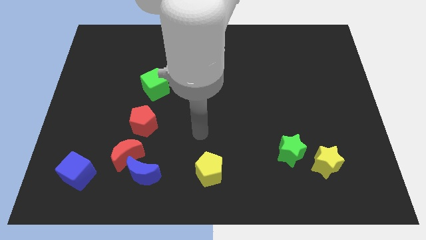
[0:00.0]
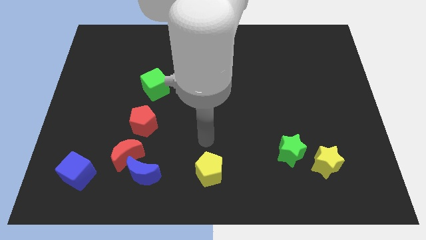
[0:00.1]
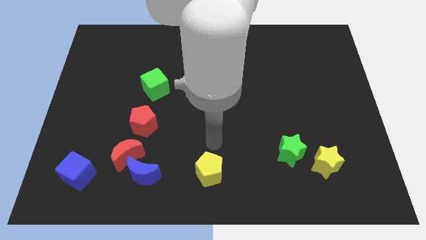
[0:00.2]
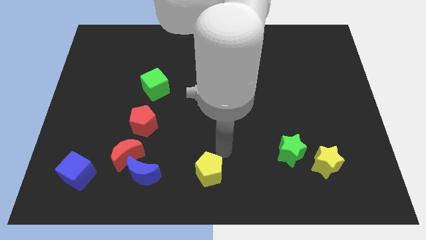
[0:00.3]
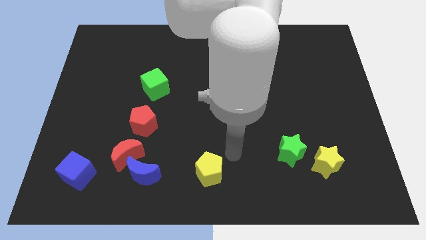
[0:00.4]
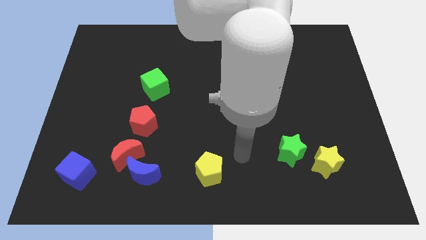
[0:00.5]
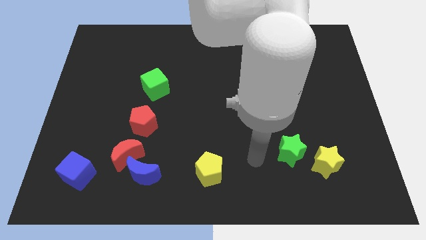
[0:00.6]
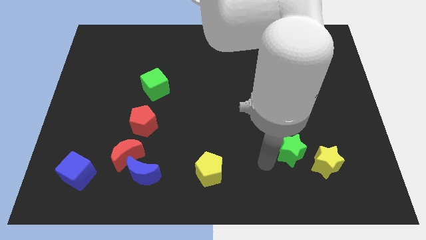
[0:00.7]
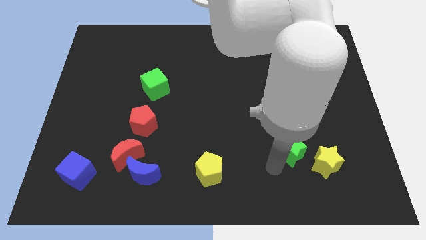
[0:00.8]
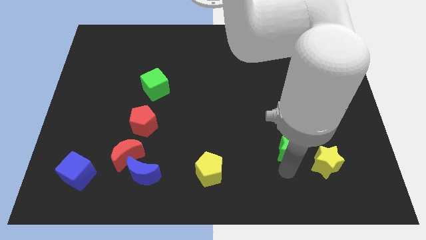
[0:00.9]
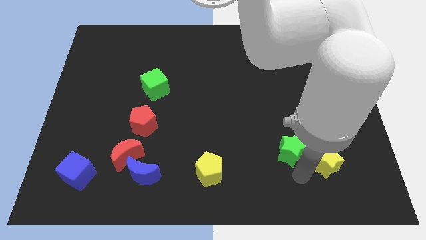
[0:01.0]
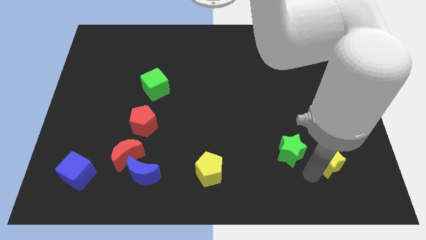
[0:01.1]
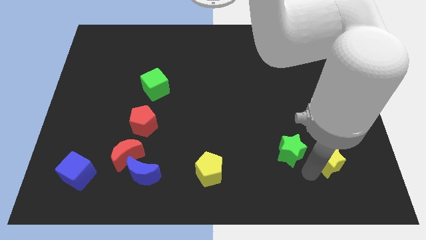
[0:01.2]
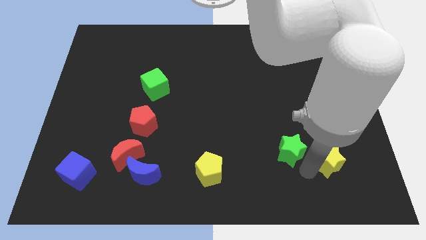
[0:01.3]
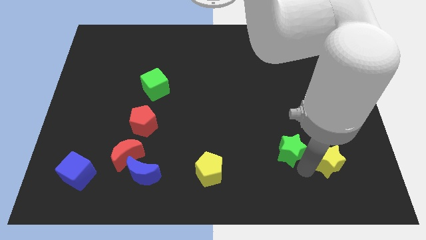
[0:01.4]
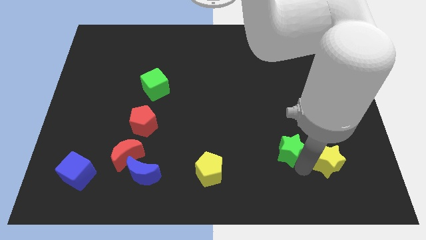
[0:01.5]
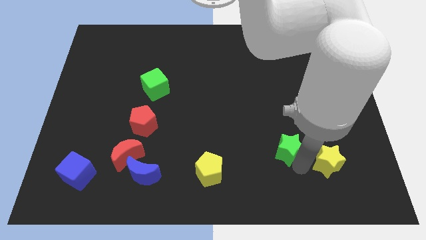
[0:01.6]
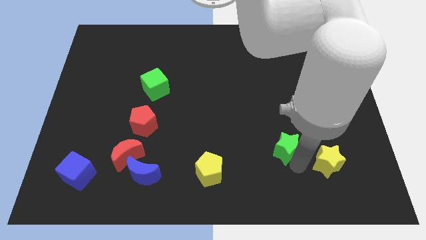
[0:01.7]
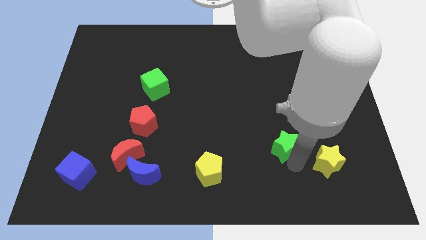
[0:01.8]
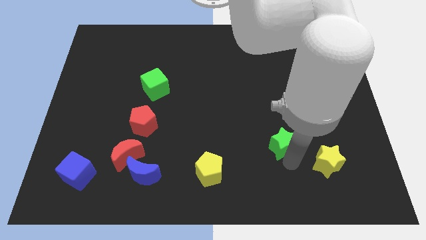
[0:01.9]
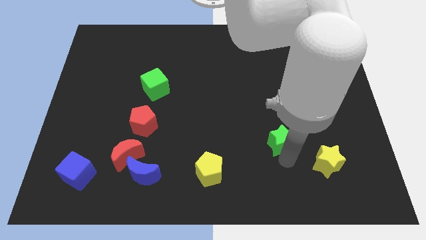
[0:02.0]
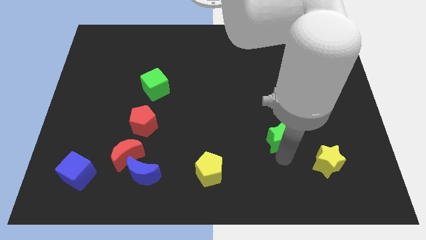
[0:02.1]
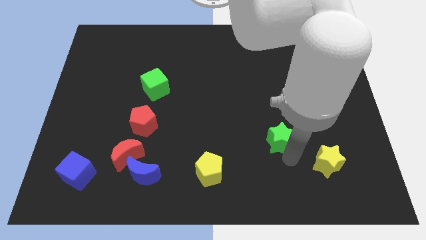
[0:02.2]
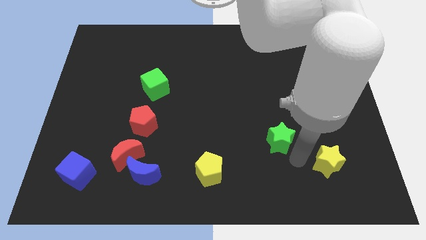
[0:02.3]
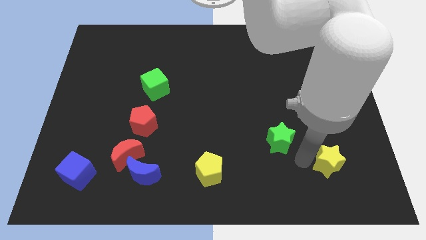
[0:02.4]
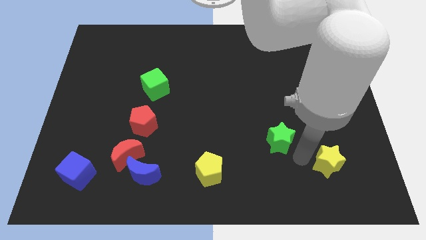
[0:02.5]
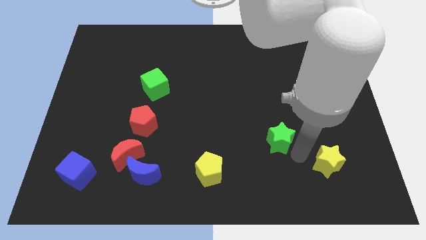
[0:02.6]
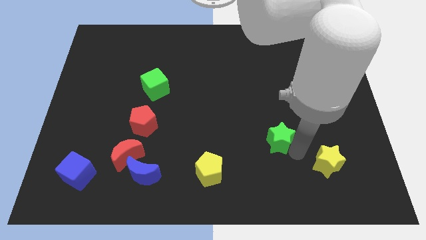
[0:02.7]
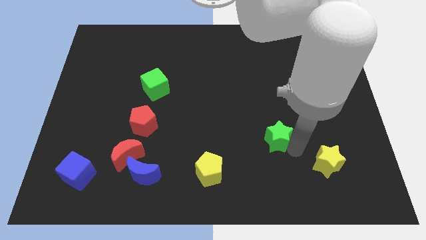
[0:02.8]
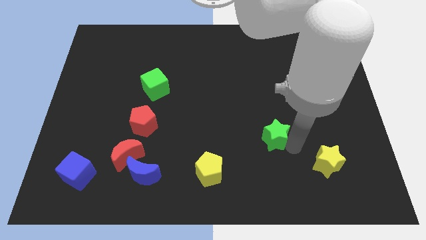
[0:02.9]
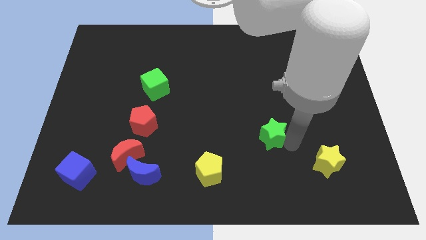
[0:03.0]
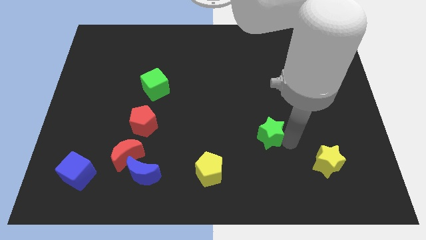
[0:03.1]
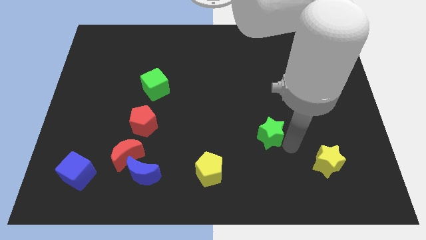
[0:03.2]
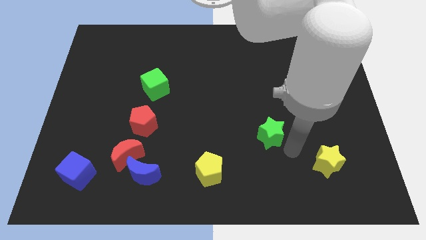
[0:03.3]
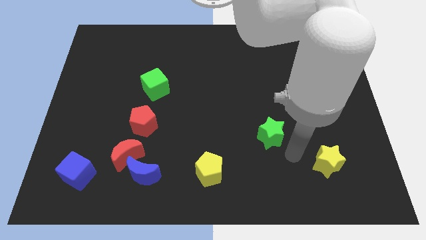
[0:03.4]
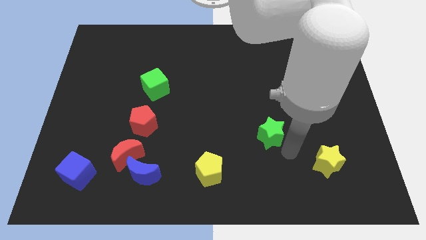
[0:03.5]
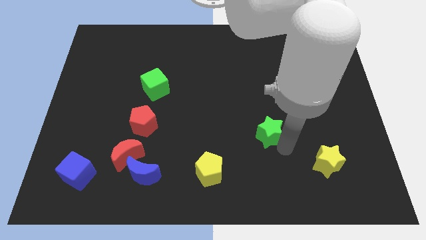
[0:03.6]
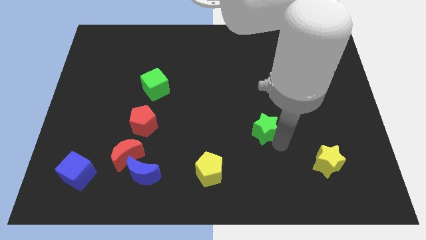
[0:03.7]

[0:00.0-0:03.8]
move the green star upwards and then left a little

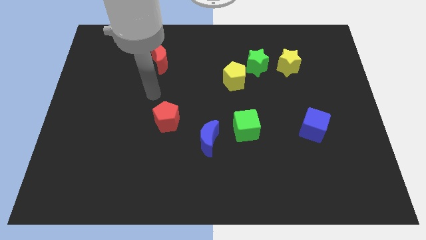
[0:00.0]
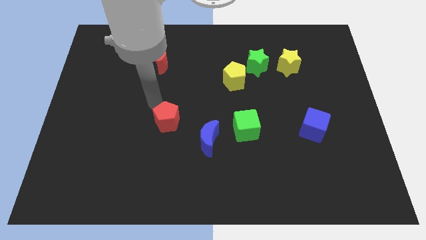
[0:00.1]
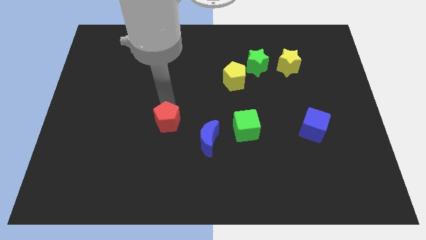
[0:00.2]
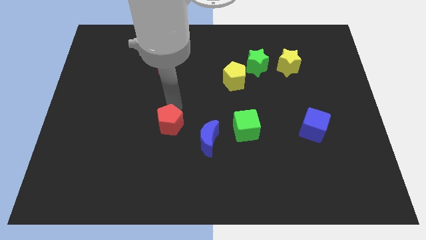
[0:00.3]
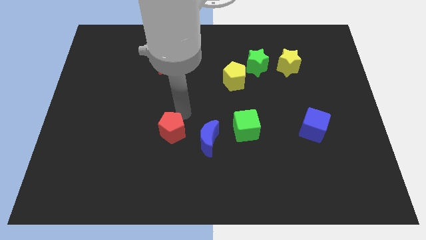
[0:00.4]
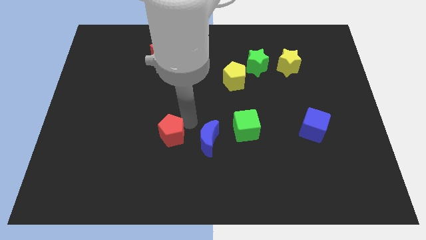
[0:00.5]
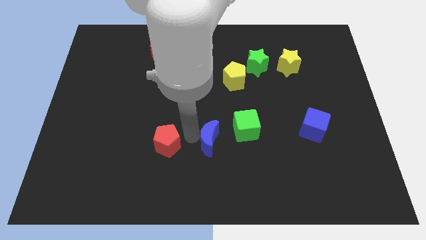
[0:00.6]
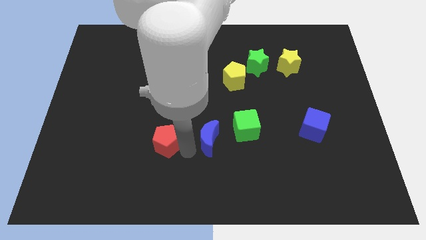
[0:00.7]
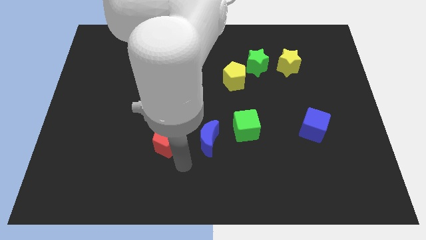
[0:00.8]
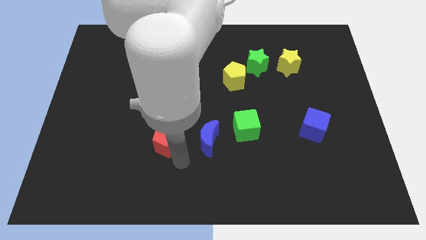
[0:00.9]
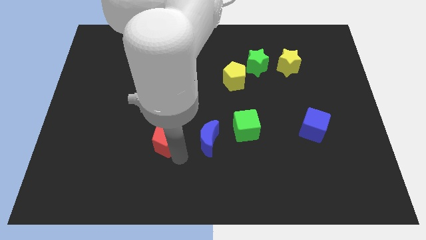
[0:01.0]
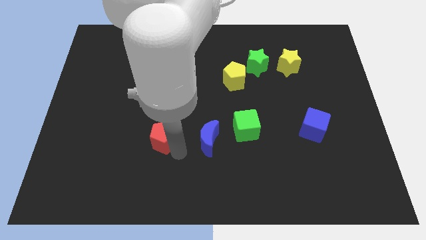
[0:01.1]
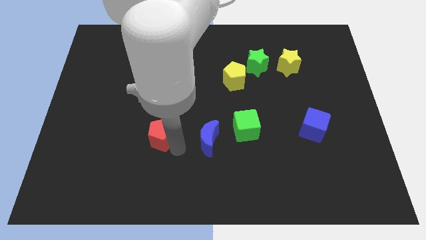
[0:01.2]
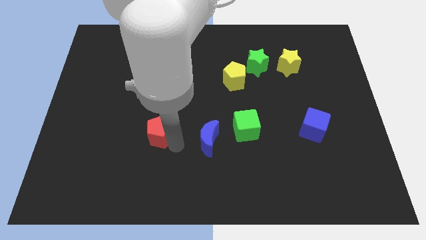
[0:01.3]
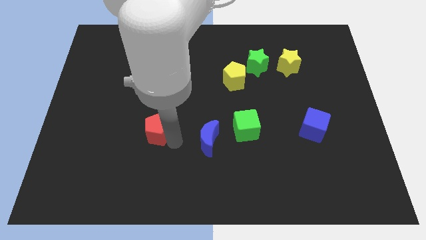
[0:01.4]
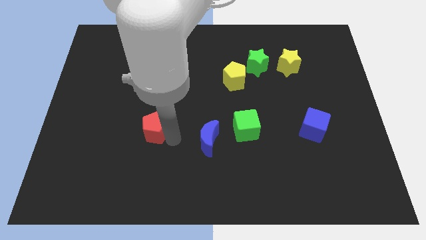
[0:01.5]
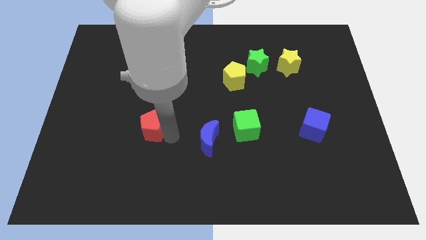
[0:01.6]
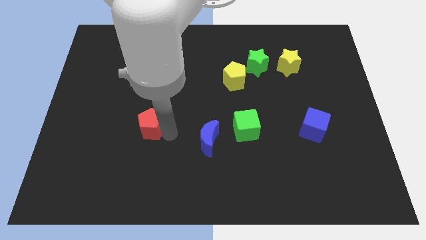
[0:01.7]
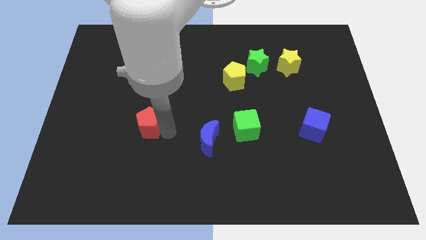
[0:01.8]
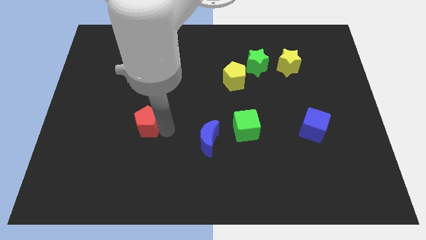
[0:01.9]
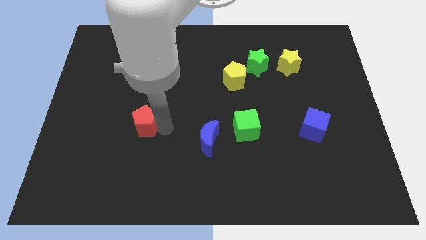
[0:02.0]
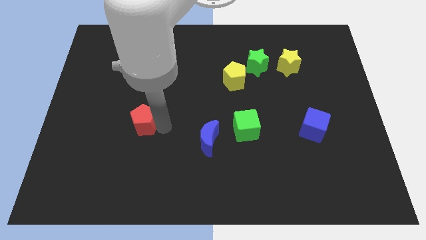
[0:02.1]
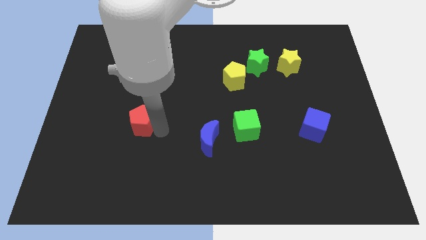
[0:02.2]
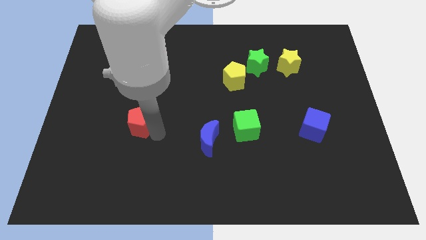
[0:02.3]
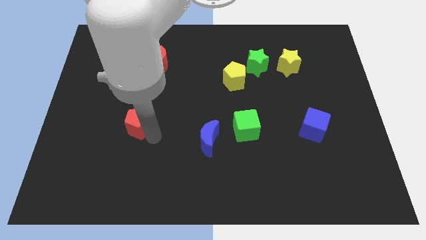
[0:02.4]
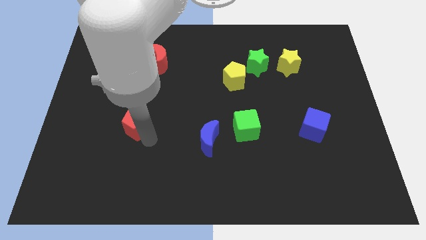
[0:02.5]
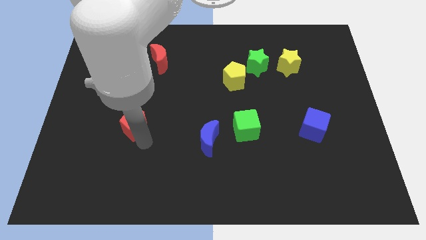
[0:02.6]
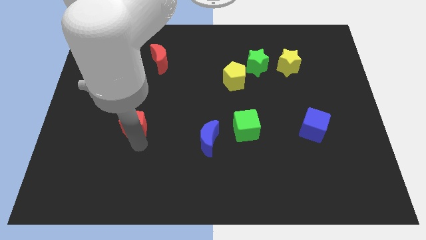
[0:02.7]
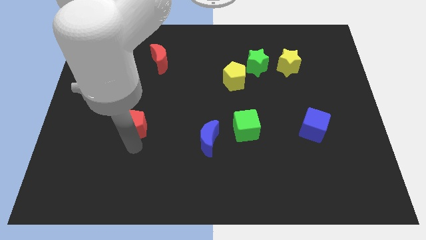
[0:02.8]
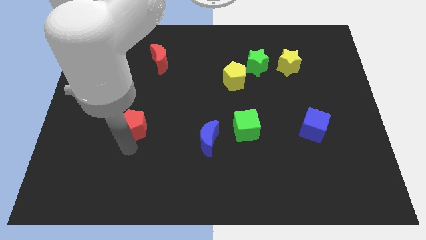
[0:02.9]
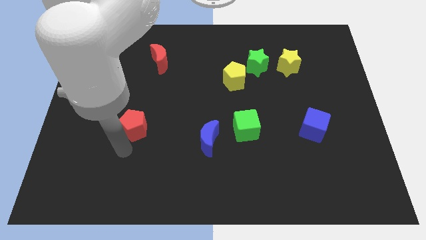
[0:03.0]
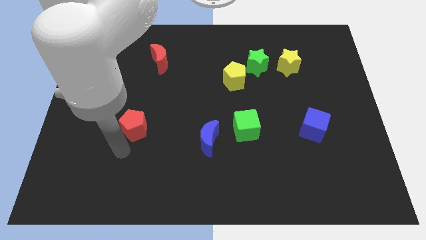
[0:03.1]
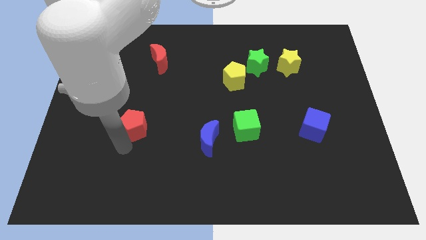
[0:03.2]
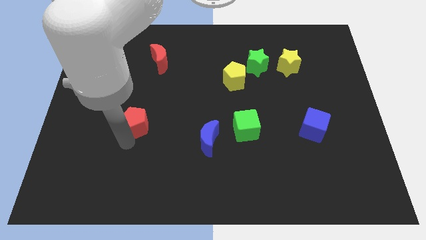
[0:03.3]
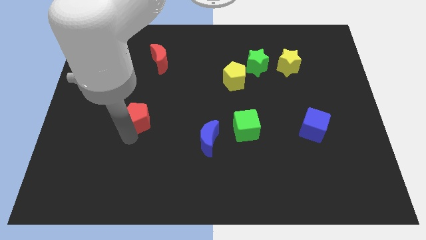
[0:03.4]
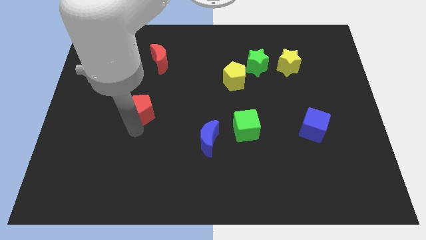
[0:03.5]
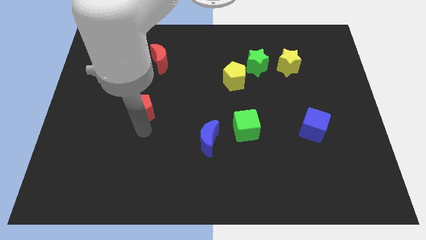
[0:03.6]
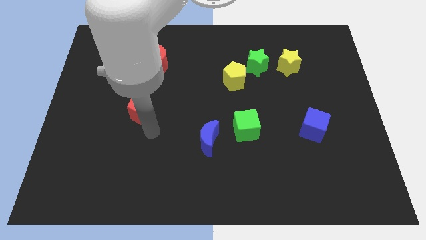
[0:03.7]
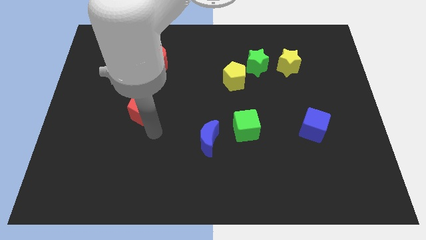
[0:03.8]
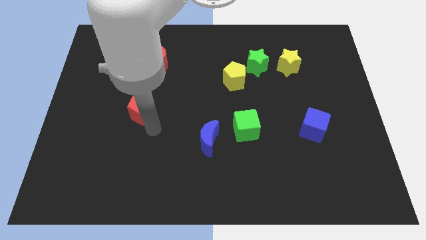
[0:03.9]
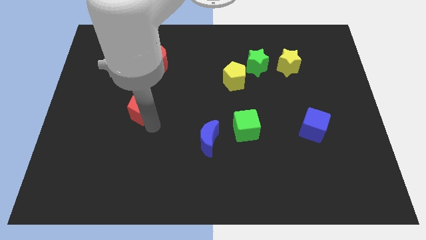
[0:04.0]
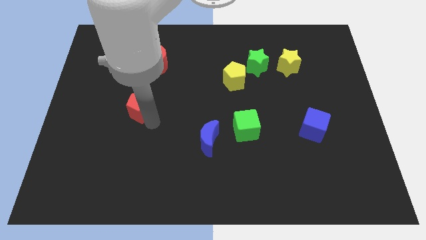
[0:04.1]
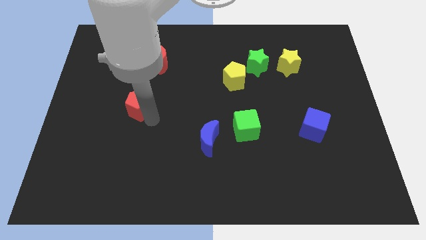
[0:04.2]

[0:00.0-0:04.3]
slightly slide the red pentagon up and left
